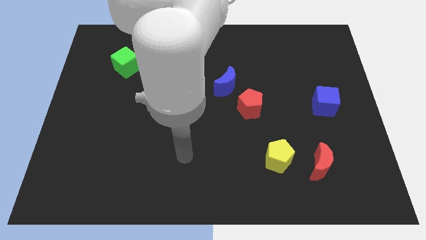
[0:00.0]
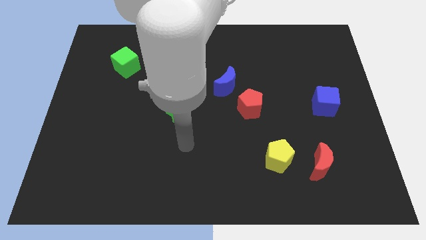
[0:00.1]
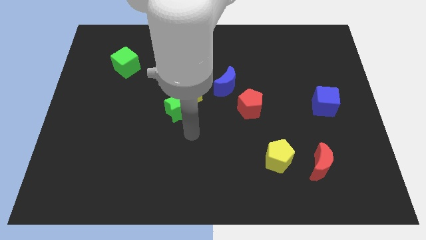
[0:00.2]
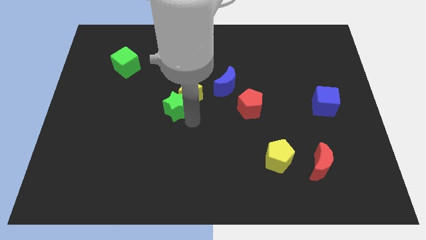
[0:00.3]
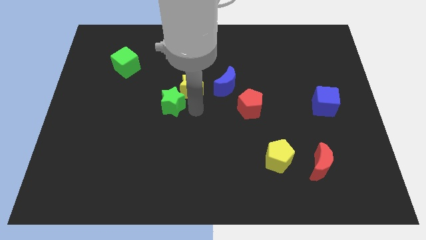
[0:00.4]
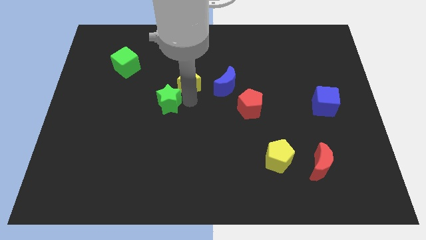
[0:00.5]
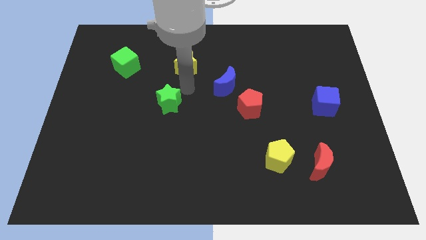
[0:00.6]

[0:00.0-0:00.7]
move the green star away from the yellow star

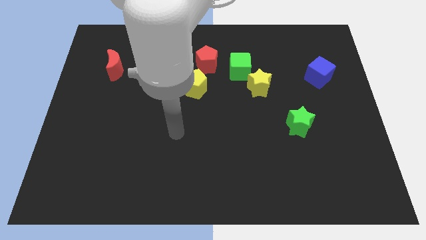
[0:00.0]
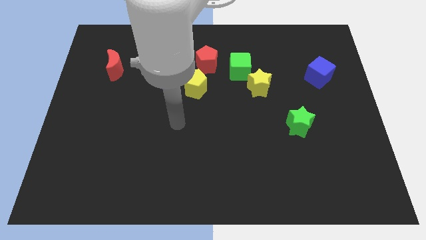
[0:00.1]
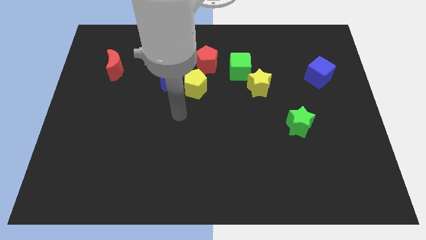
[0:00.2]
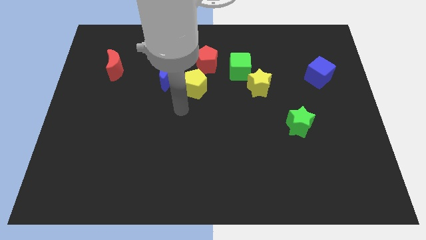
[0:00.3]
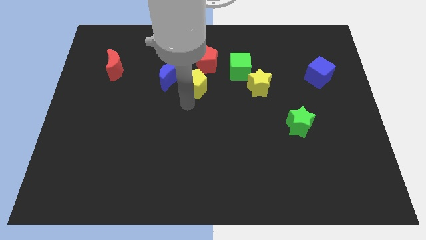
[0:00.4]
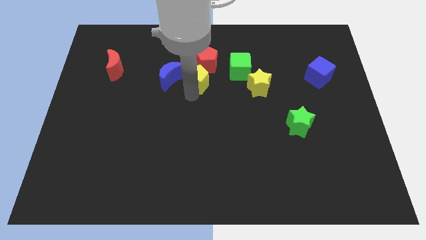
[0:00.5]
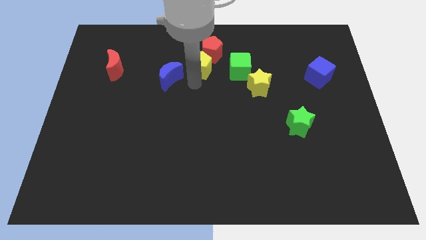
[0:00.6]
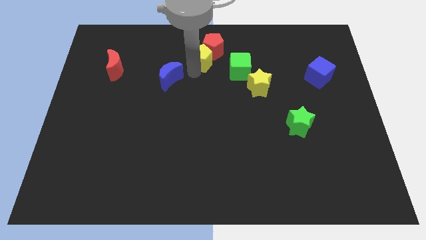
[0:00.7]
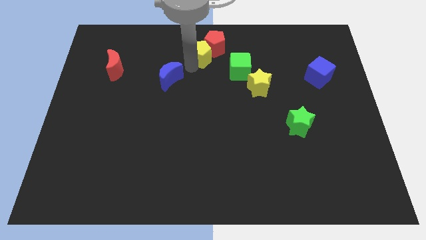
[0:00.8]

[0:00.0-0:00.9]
move the blue moon away from the yellow pentagon

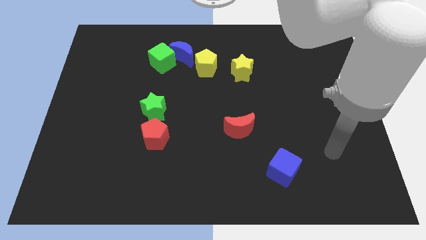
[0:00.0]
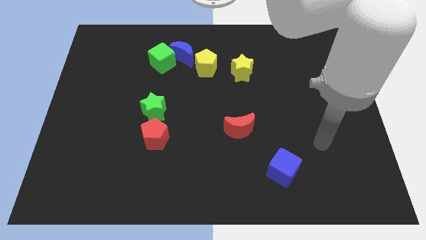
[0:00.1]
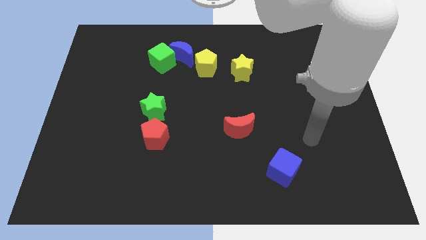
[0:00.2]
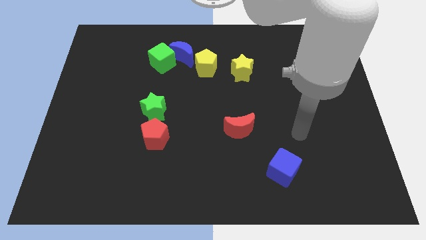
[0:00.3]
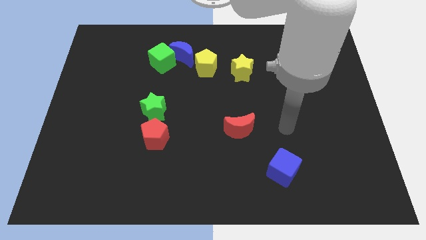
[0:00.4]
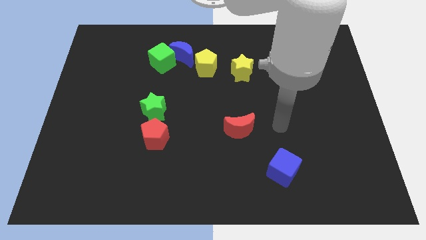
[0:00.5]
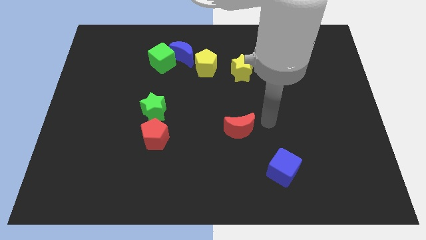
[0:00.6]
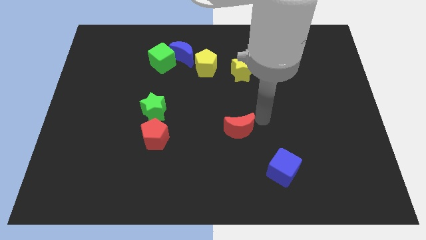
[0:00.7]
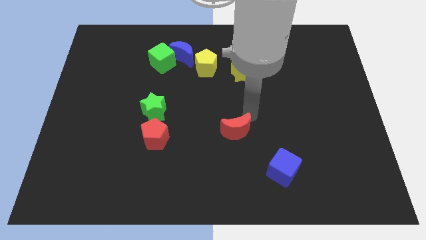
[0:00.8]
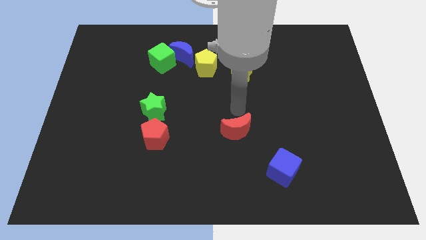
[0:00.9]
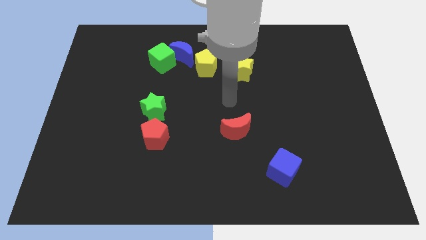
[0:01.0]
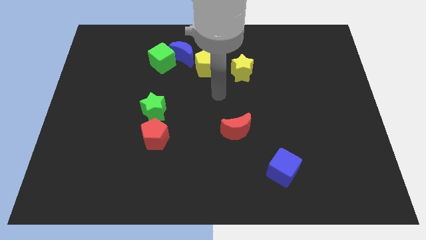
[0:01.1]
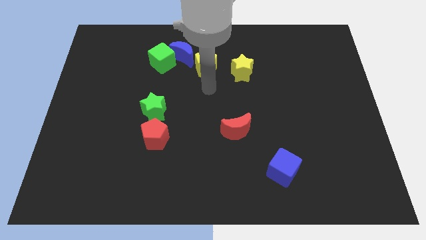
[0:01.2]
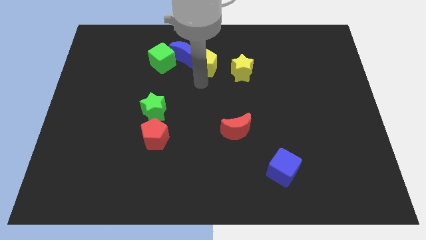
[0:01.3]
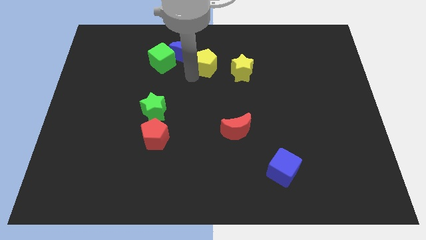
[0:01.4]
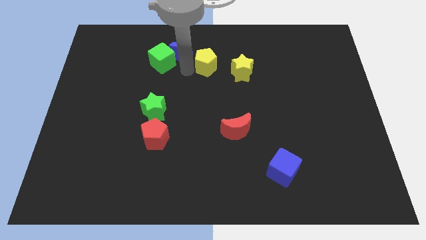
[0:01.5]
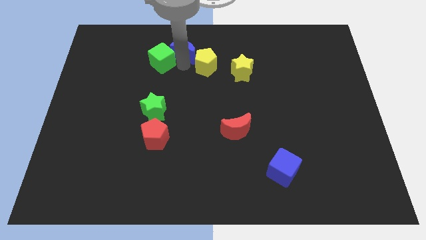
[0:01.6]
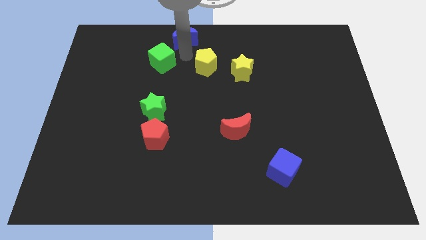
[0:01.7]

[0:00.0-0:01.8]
separate the green cube from the blue moon

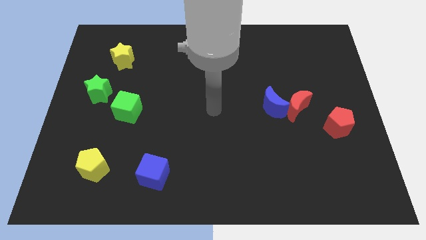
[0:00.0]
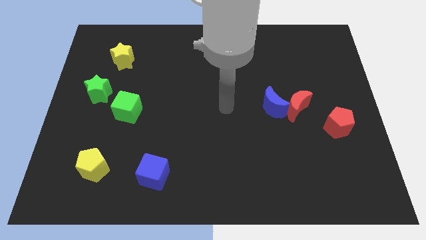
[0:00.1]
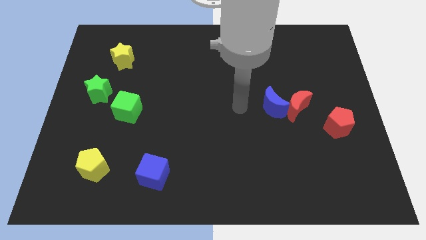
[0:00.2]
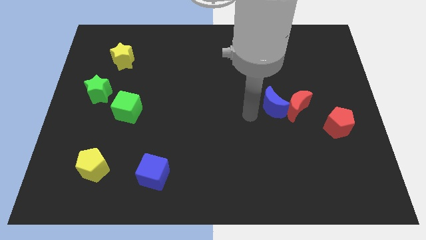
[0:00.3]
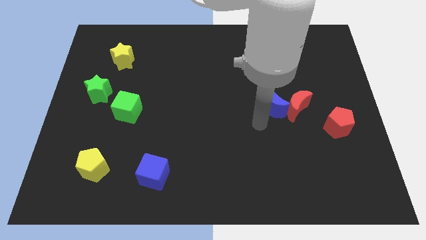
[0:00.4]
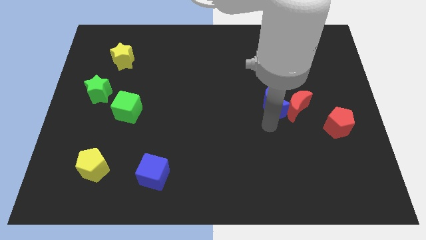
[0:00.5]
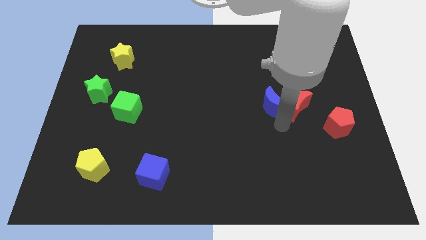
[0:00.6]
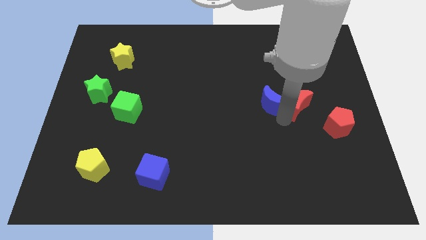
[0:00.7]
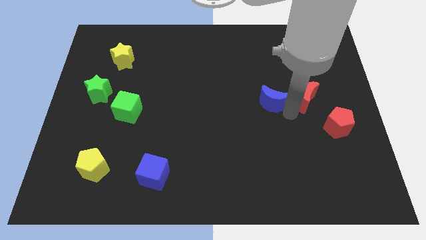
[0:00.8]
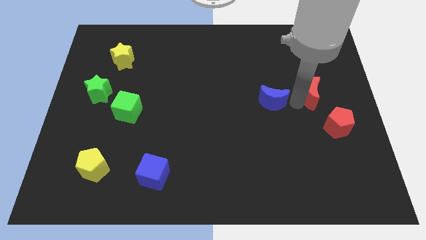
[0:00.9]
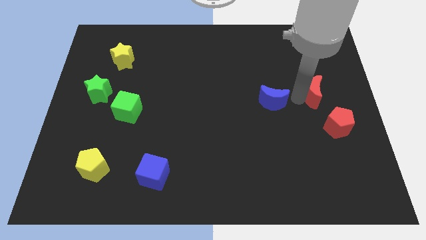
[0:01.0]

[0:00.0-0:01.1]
pull the blue moon apart from the red moon

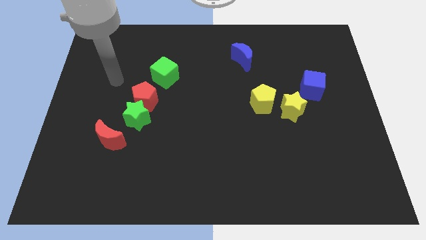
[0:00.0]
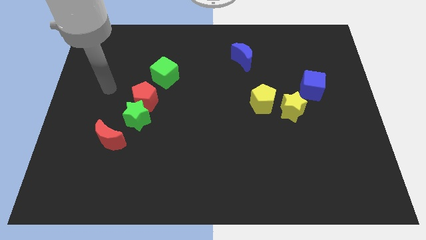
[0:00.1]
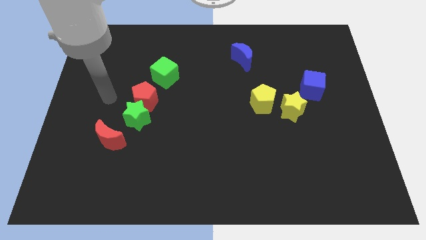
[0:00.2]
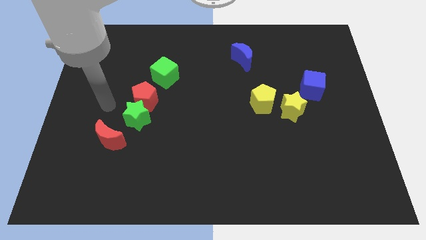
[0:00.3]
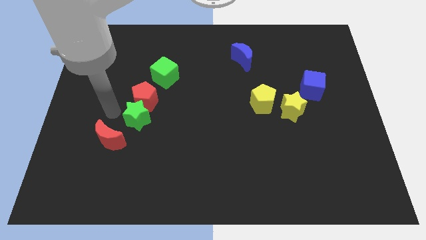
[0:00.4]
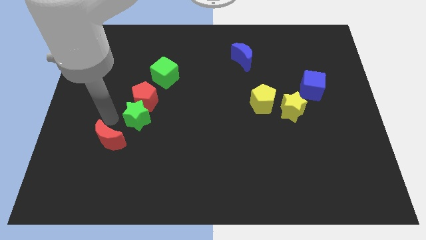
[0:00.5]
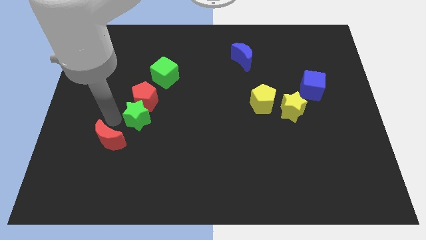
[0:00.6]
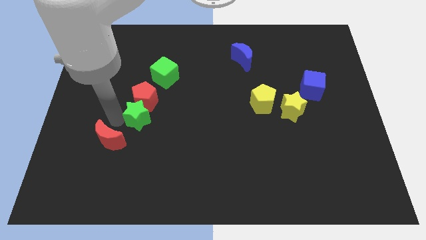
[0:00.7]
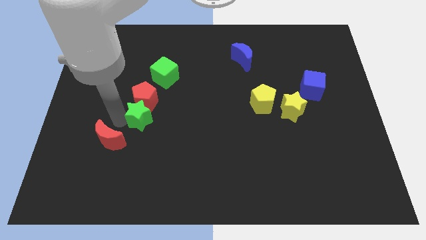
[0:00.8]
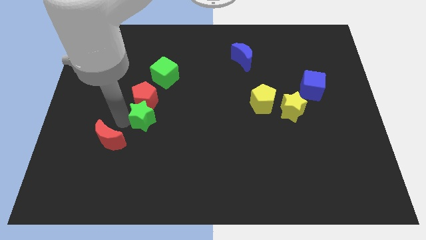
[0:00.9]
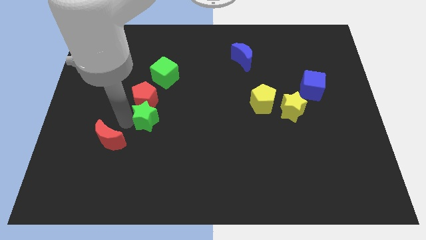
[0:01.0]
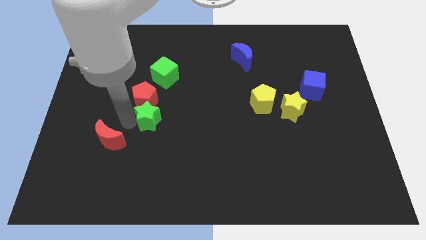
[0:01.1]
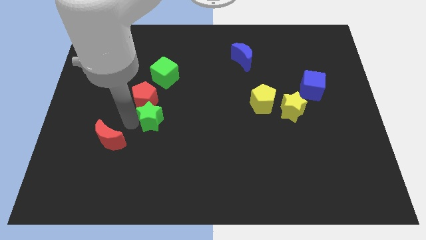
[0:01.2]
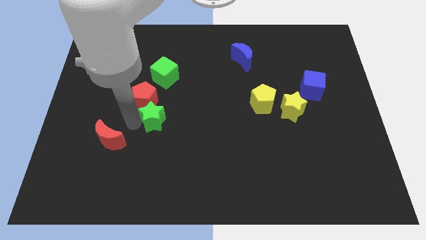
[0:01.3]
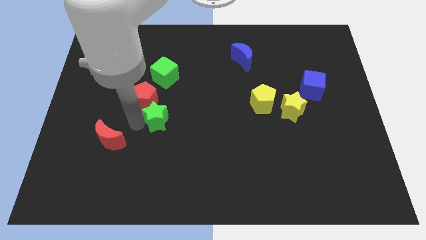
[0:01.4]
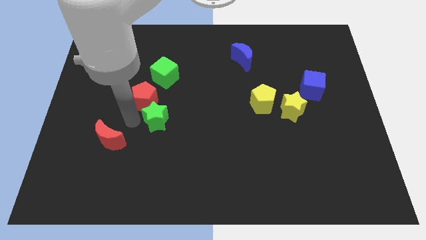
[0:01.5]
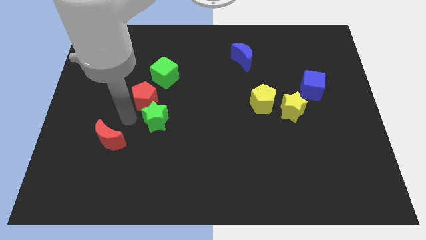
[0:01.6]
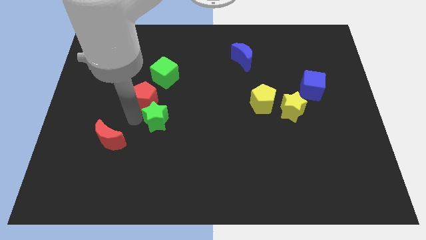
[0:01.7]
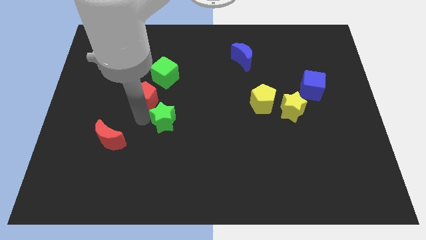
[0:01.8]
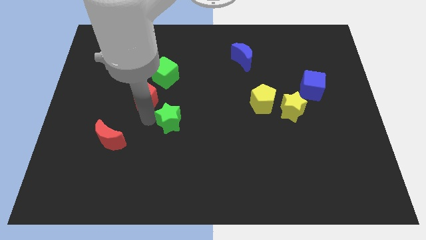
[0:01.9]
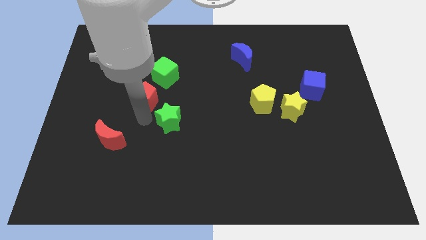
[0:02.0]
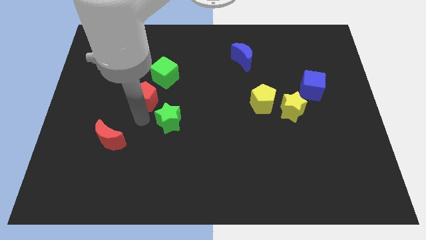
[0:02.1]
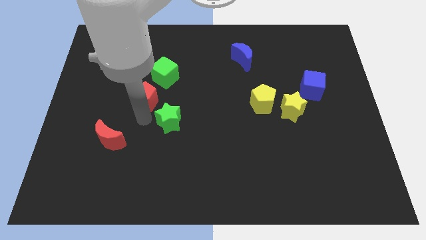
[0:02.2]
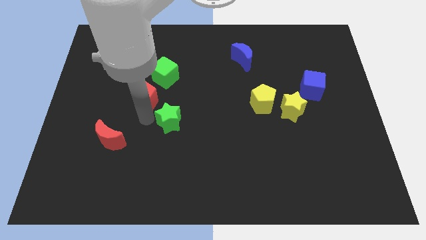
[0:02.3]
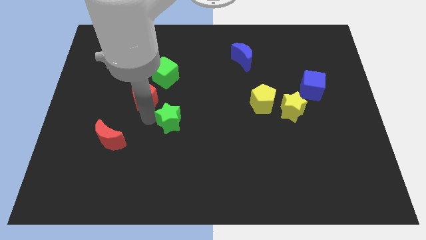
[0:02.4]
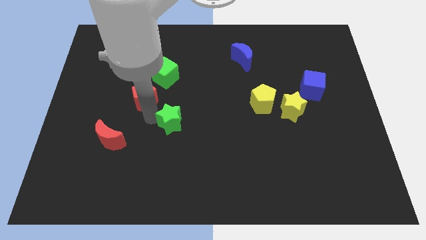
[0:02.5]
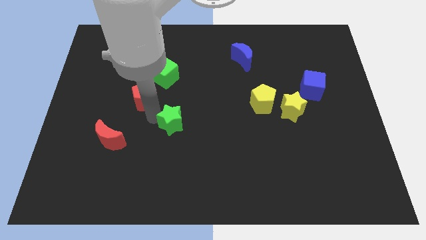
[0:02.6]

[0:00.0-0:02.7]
pull the green star apart from the red pentagon and red moon

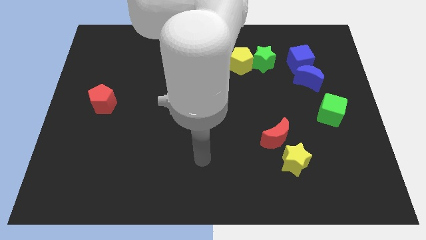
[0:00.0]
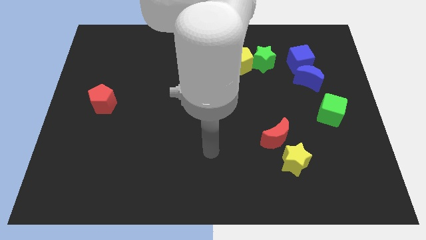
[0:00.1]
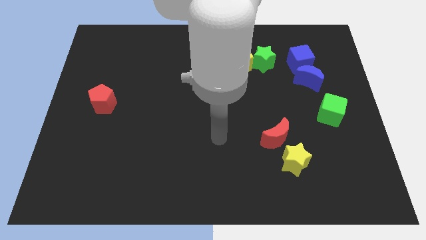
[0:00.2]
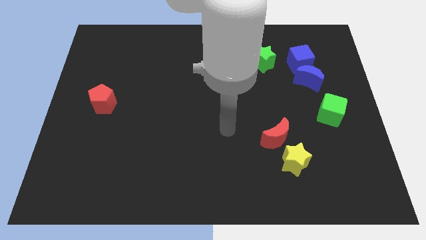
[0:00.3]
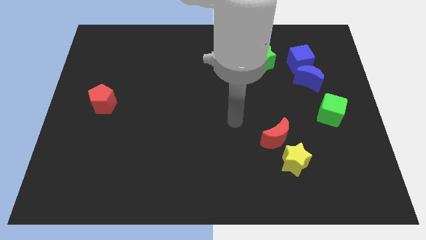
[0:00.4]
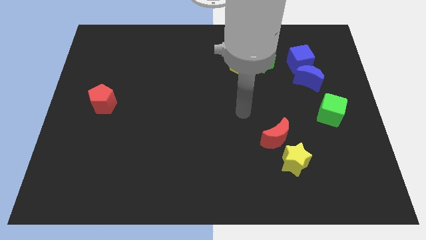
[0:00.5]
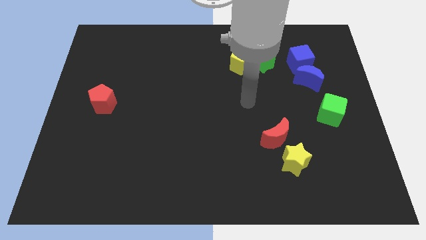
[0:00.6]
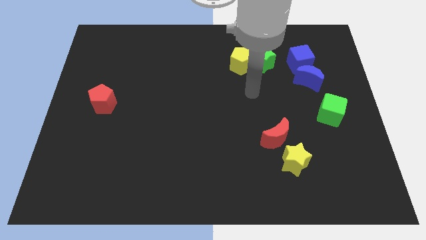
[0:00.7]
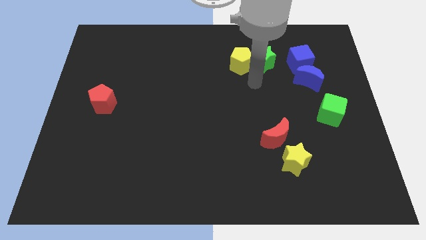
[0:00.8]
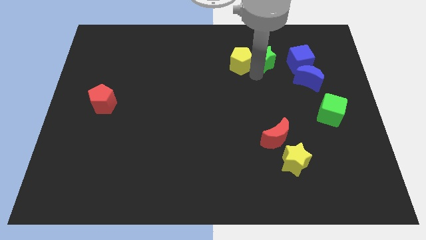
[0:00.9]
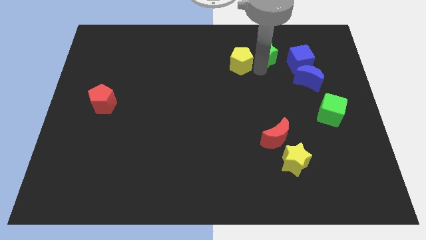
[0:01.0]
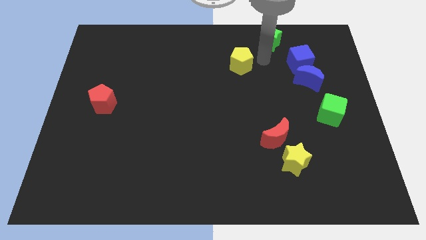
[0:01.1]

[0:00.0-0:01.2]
pull the yellow pentagon apart from the green star

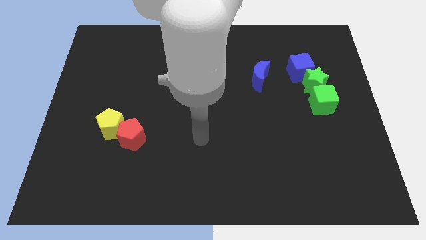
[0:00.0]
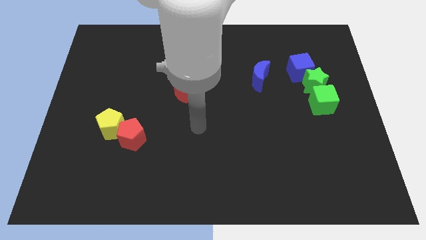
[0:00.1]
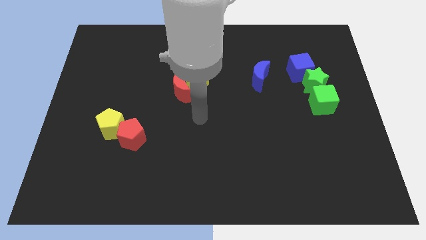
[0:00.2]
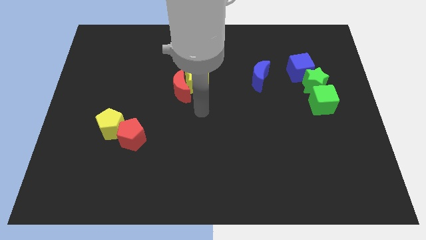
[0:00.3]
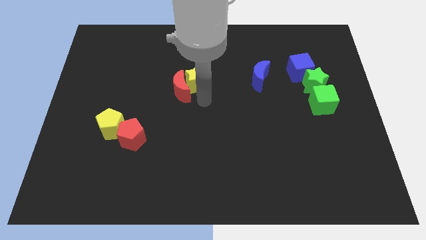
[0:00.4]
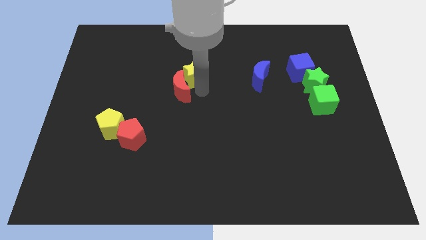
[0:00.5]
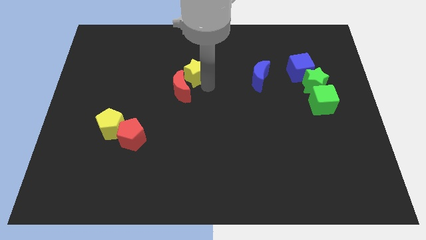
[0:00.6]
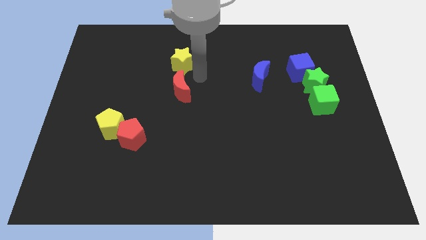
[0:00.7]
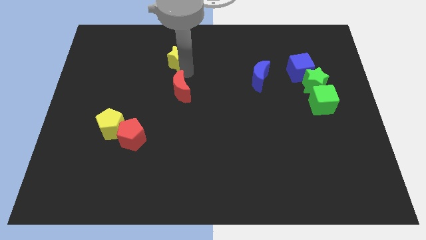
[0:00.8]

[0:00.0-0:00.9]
move the red moon away from the yellow star

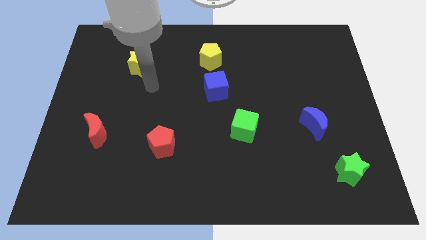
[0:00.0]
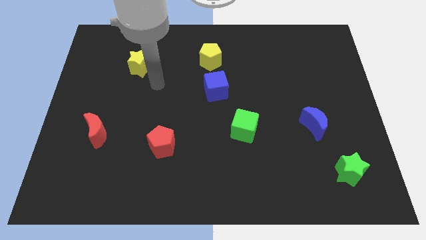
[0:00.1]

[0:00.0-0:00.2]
move the blue cube away from the yellow pentagon
